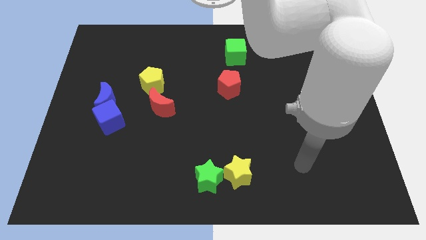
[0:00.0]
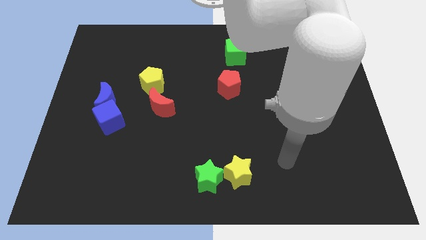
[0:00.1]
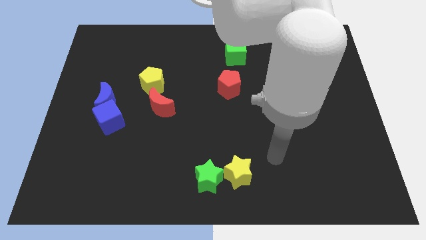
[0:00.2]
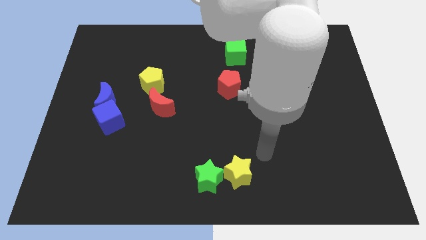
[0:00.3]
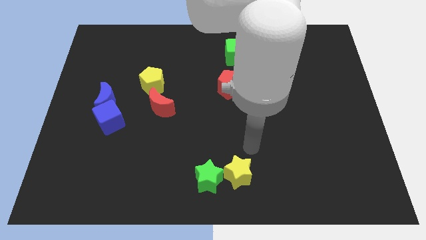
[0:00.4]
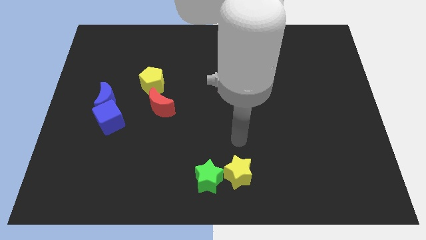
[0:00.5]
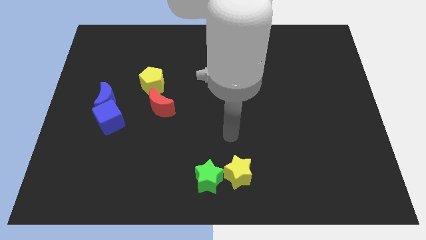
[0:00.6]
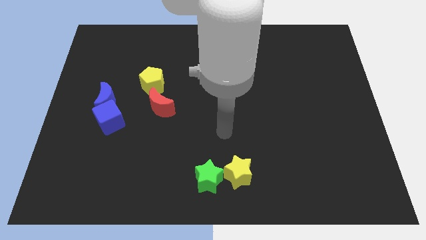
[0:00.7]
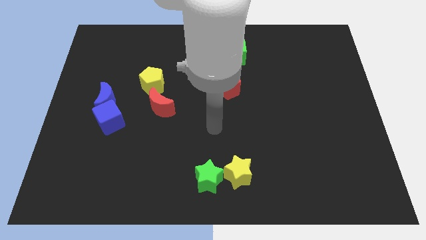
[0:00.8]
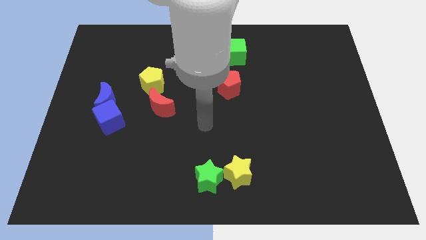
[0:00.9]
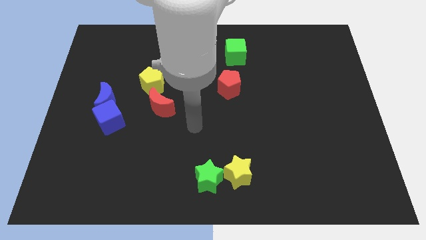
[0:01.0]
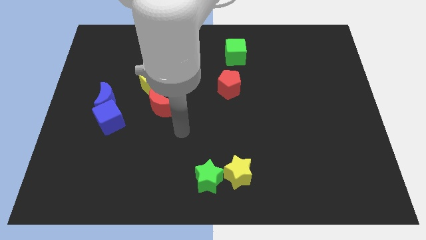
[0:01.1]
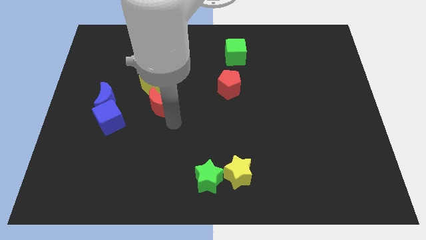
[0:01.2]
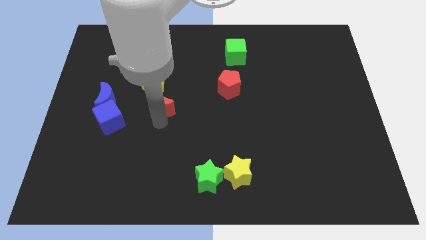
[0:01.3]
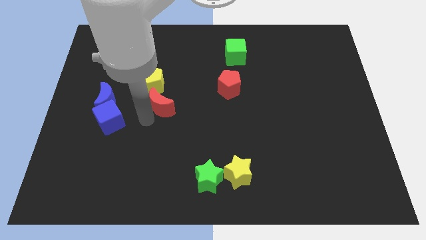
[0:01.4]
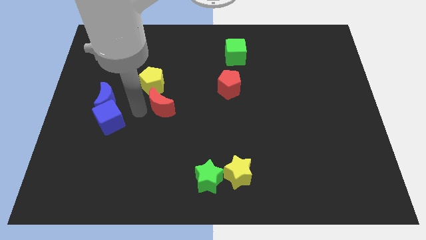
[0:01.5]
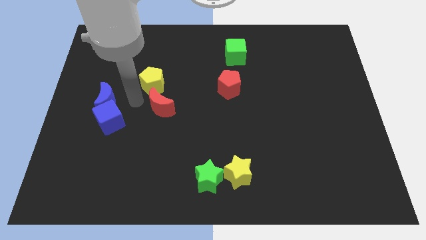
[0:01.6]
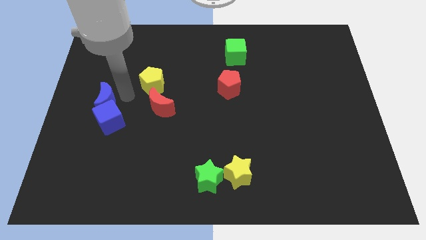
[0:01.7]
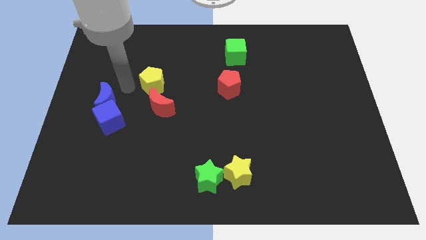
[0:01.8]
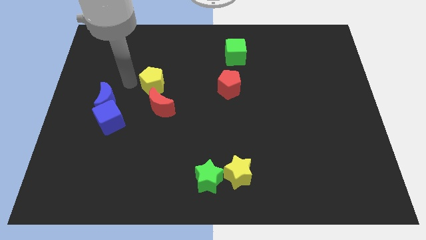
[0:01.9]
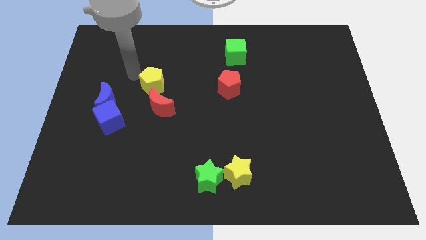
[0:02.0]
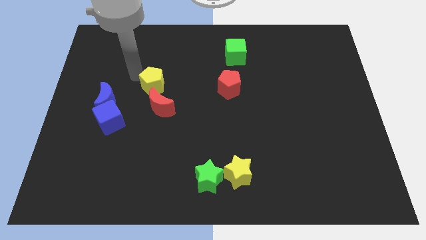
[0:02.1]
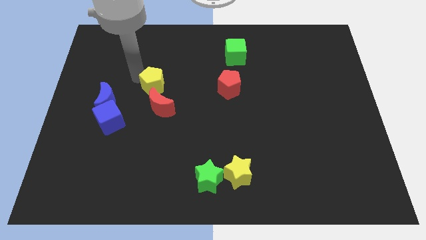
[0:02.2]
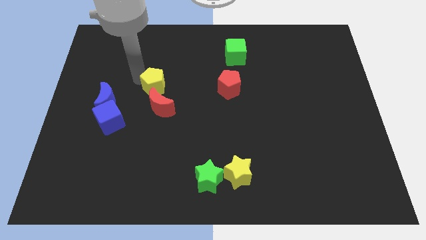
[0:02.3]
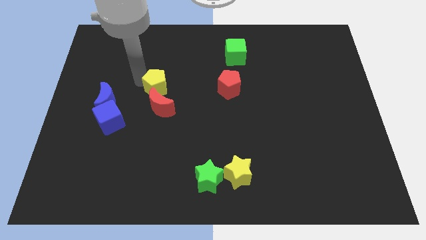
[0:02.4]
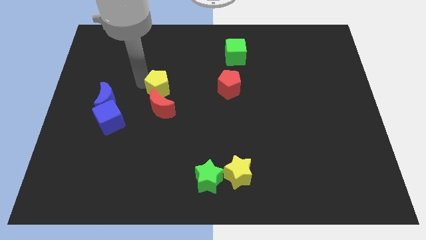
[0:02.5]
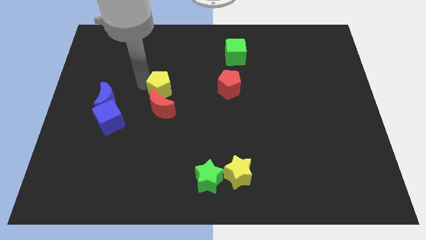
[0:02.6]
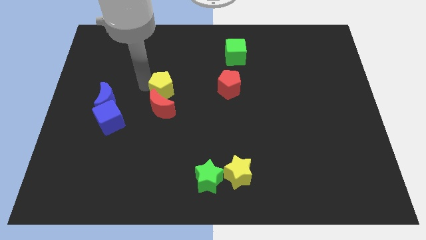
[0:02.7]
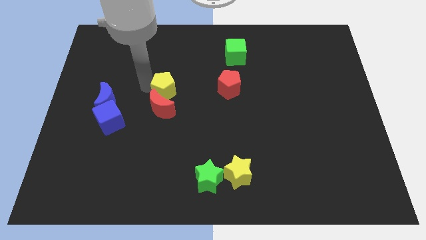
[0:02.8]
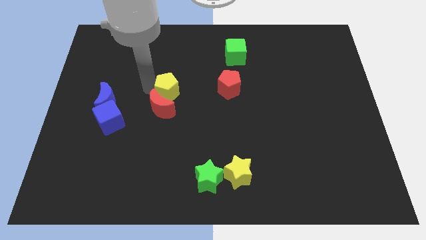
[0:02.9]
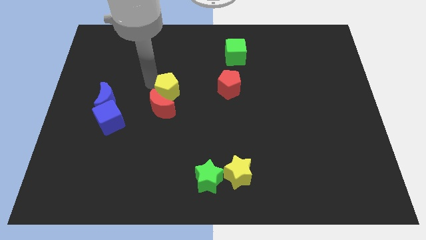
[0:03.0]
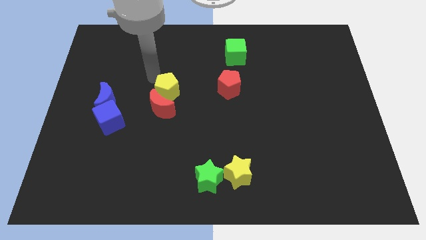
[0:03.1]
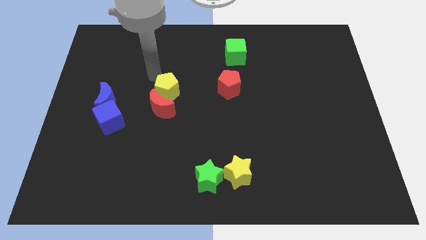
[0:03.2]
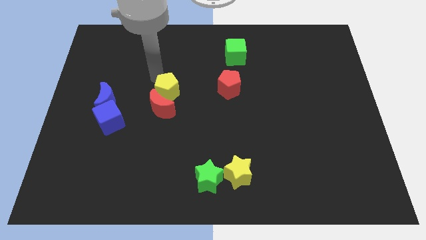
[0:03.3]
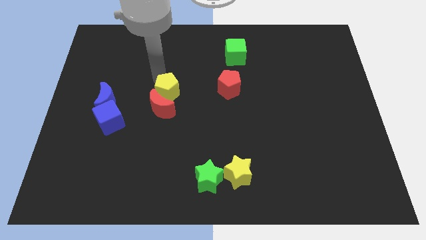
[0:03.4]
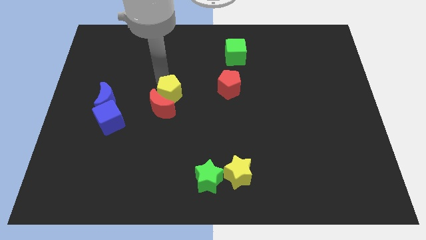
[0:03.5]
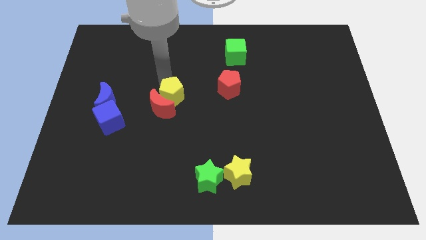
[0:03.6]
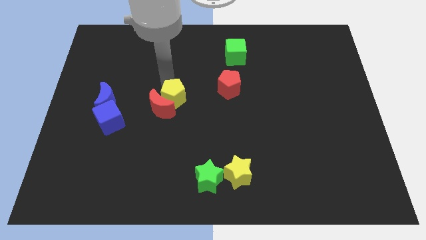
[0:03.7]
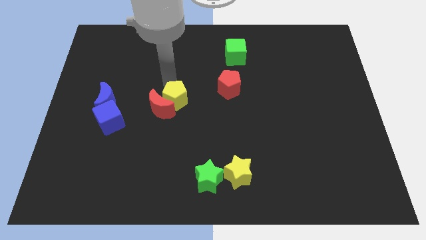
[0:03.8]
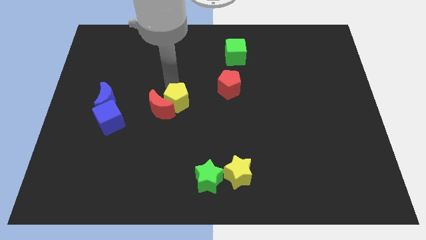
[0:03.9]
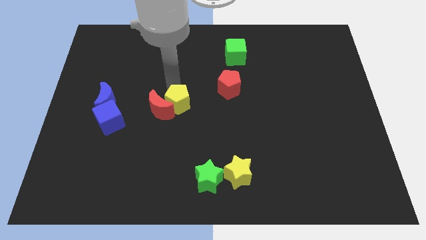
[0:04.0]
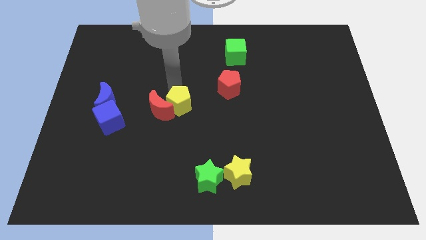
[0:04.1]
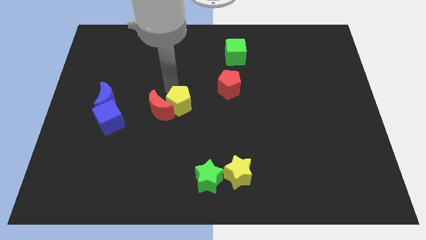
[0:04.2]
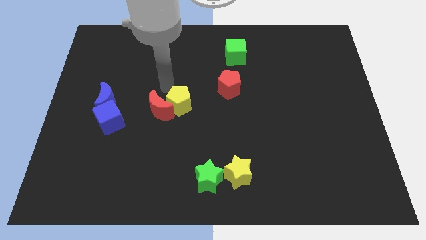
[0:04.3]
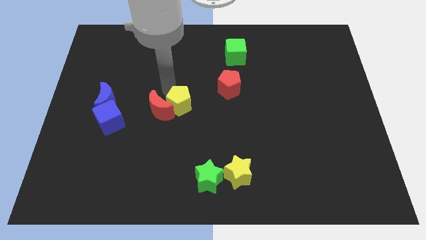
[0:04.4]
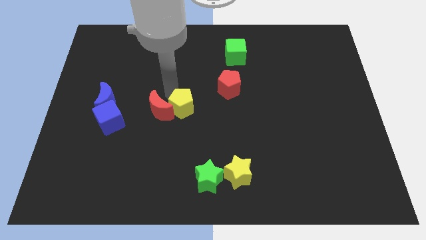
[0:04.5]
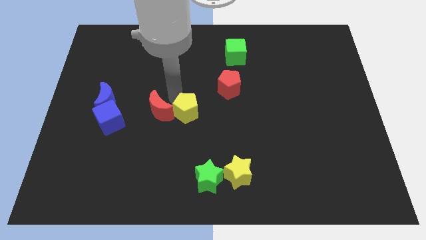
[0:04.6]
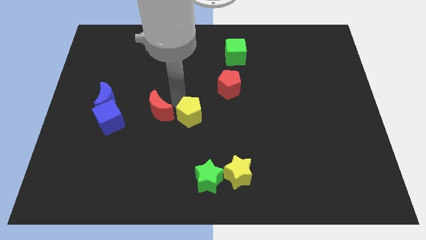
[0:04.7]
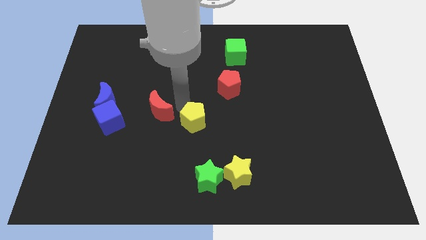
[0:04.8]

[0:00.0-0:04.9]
slide the yellow pentagon to the top of the green star

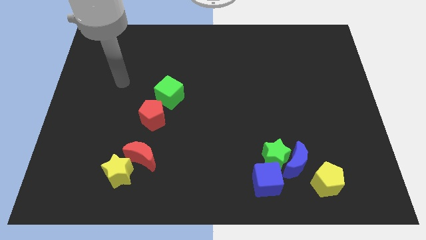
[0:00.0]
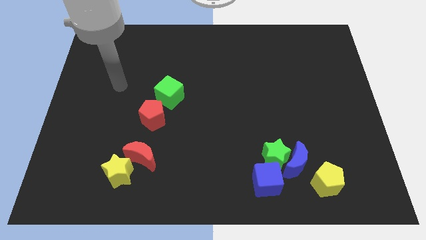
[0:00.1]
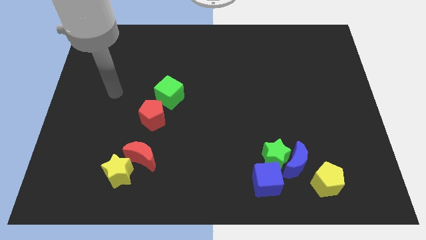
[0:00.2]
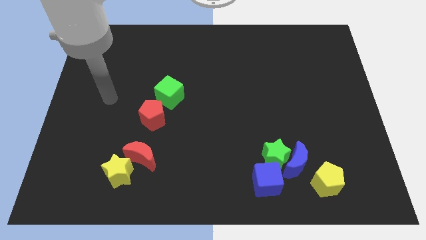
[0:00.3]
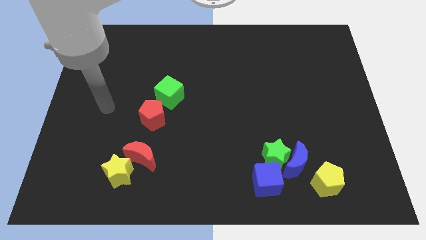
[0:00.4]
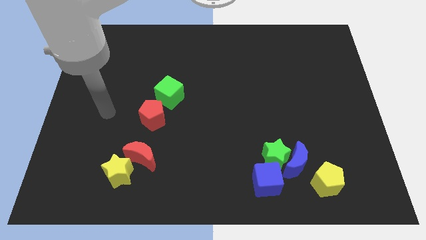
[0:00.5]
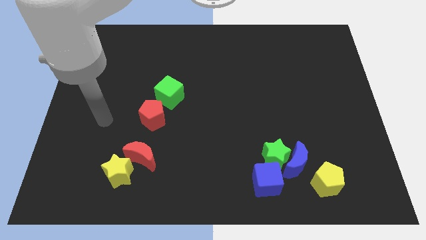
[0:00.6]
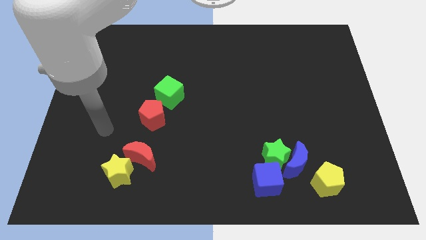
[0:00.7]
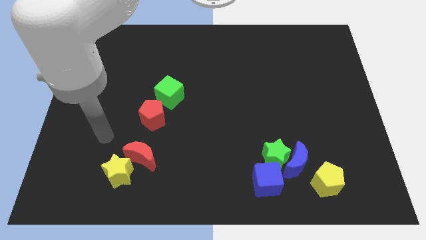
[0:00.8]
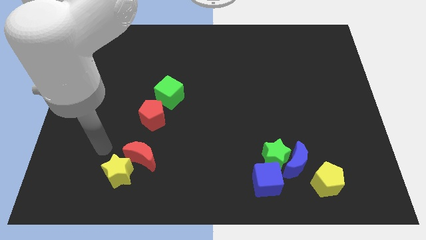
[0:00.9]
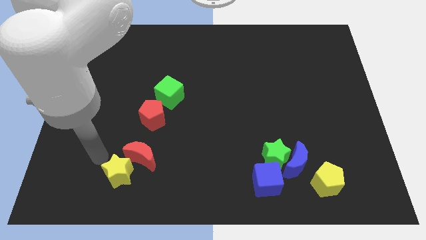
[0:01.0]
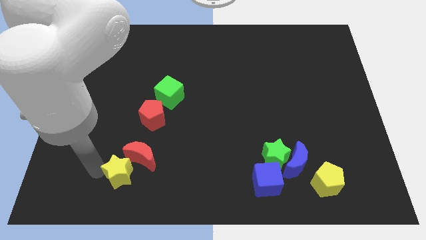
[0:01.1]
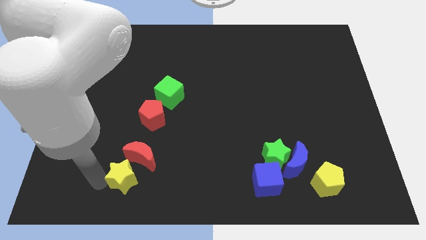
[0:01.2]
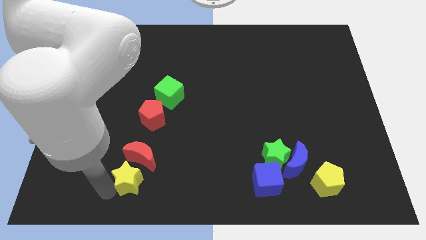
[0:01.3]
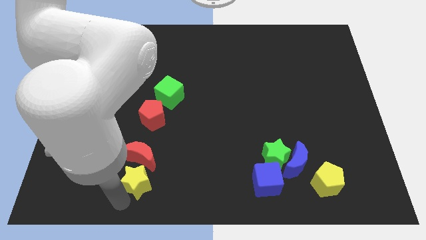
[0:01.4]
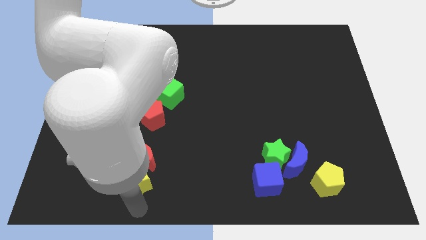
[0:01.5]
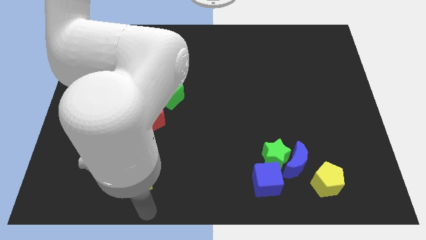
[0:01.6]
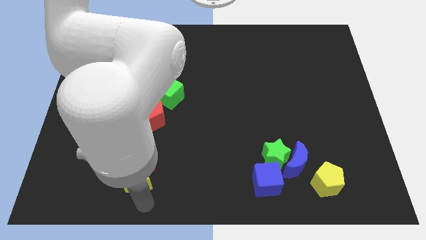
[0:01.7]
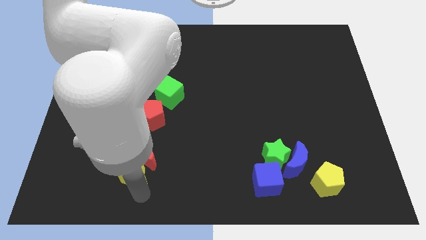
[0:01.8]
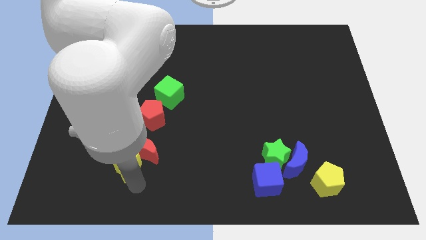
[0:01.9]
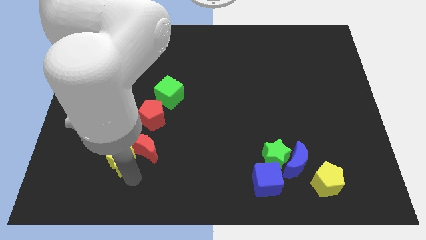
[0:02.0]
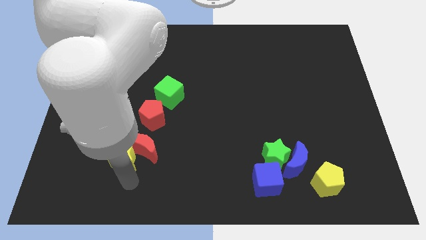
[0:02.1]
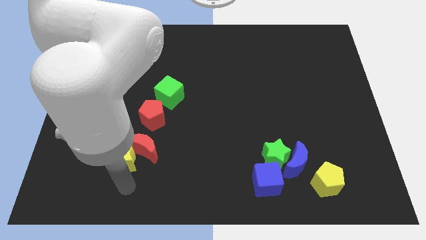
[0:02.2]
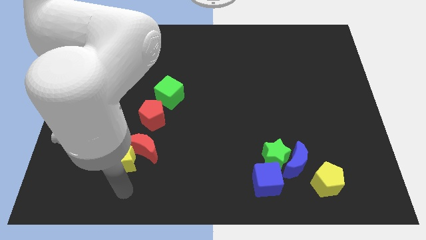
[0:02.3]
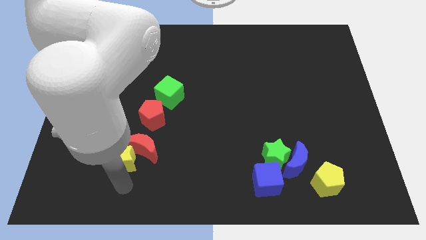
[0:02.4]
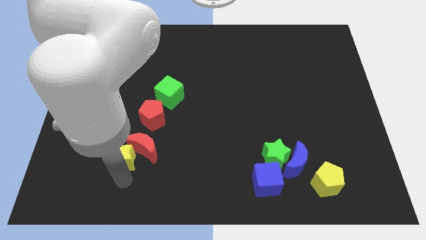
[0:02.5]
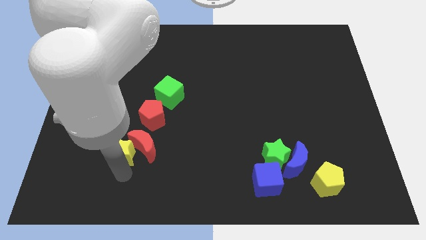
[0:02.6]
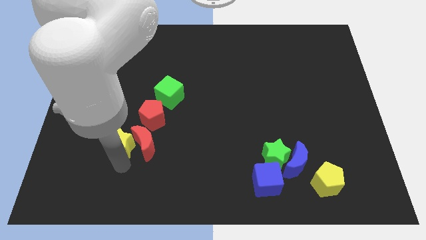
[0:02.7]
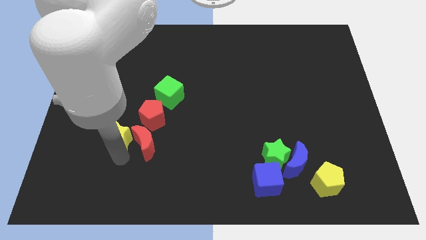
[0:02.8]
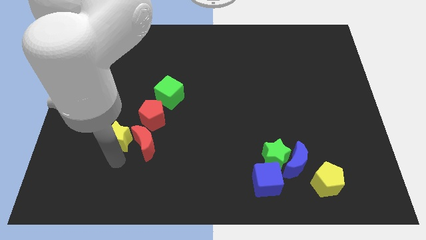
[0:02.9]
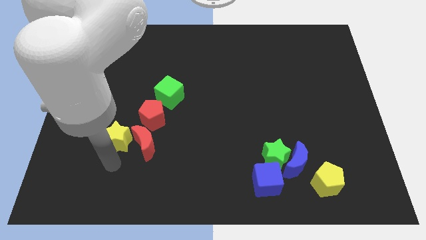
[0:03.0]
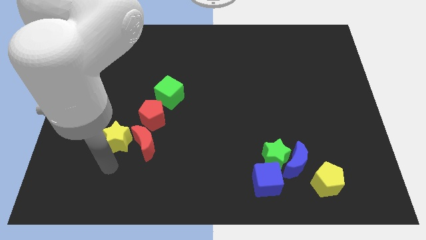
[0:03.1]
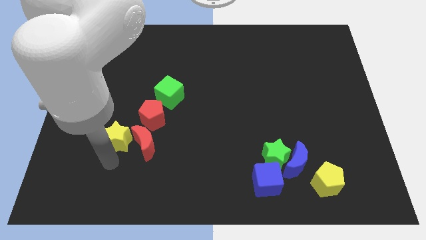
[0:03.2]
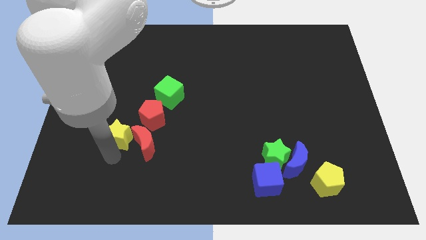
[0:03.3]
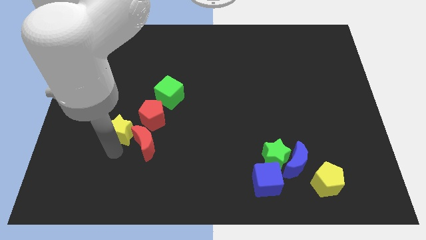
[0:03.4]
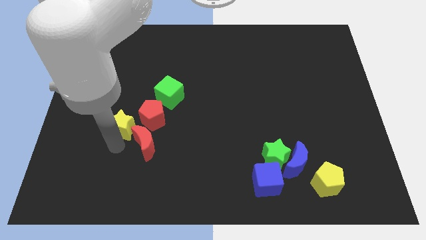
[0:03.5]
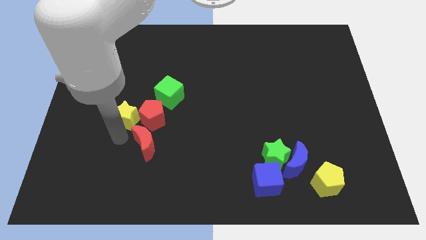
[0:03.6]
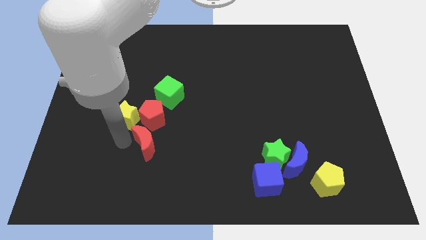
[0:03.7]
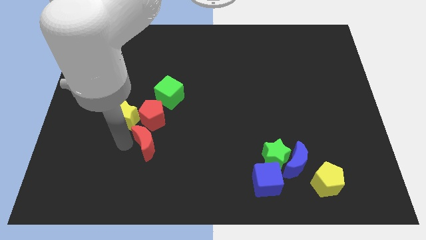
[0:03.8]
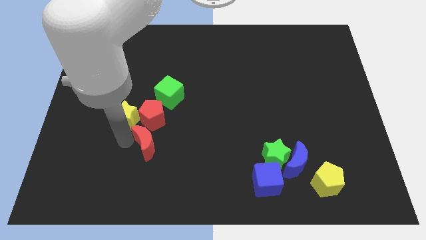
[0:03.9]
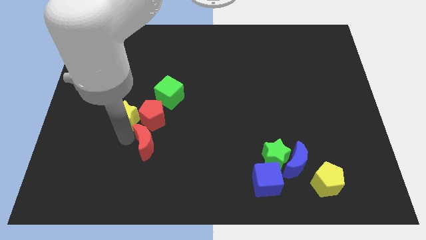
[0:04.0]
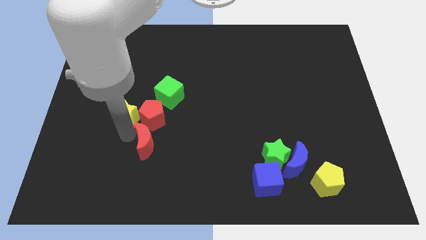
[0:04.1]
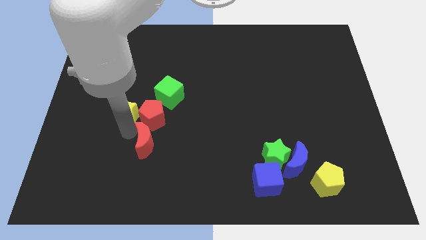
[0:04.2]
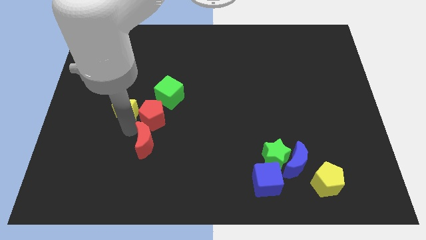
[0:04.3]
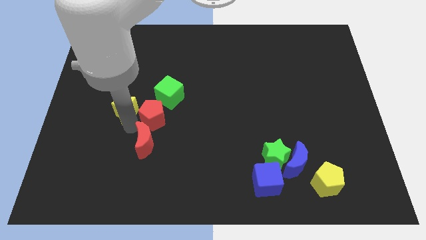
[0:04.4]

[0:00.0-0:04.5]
put the yellow star to the left side of the green cube
